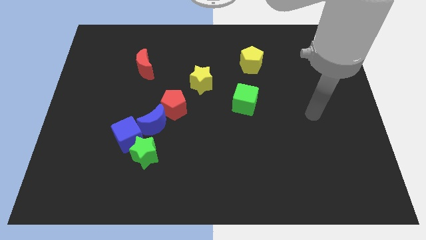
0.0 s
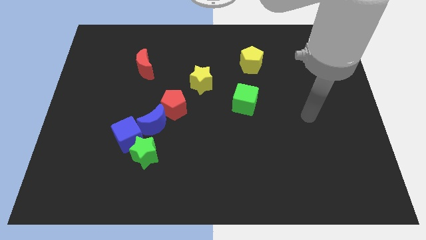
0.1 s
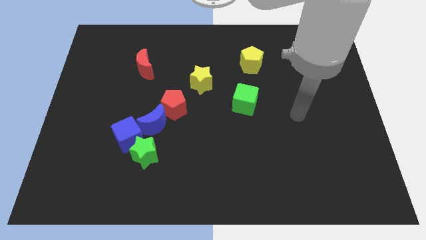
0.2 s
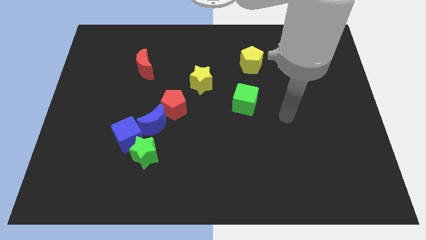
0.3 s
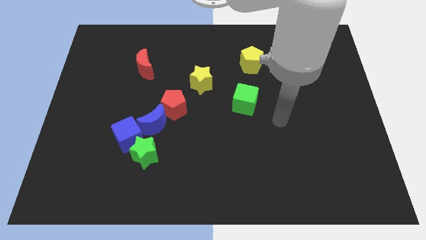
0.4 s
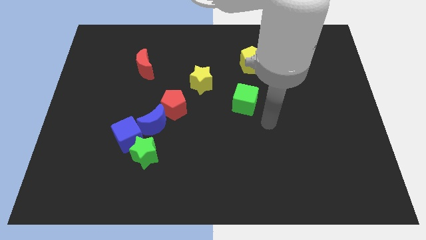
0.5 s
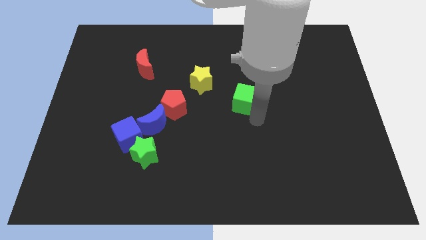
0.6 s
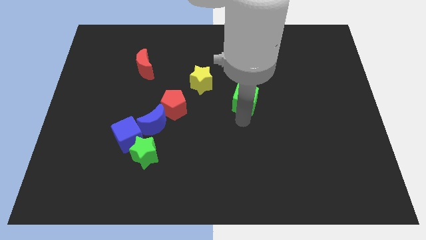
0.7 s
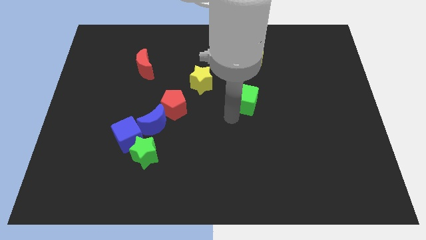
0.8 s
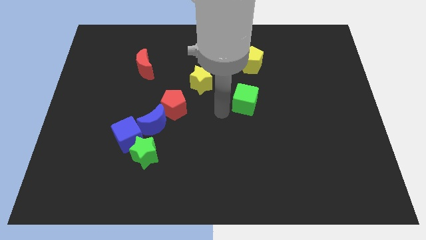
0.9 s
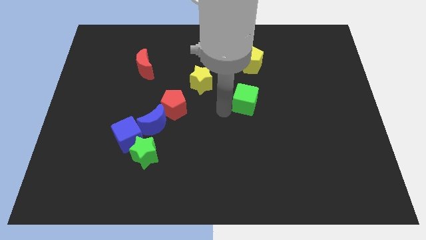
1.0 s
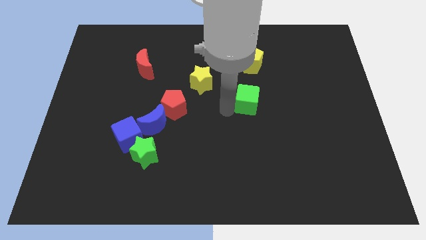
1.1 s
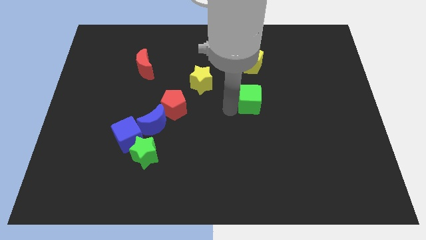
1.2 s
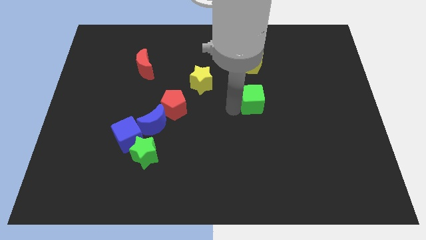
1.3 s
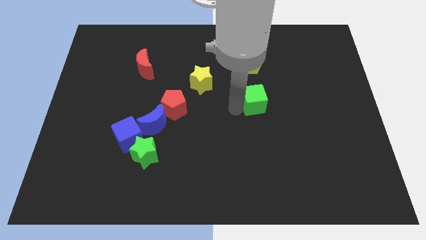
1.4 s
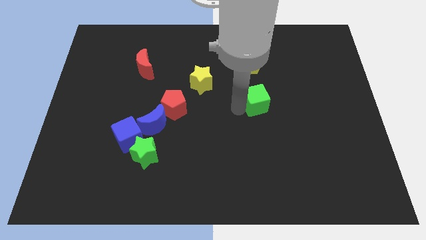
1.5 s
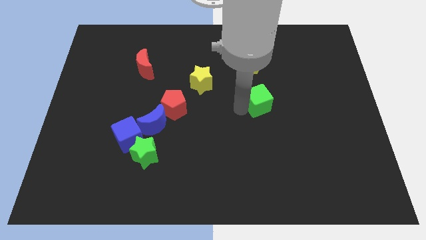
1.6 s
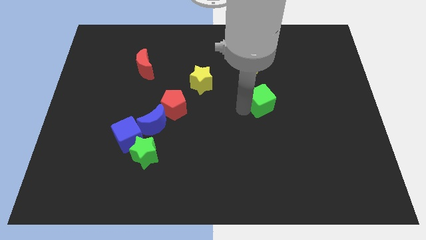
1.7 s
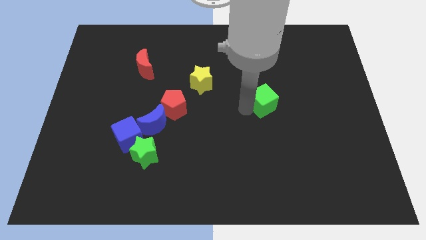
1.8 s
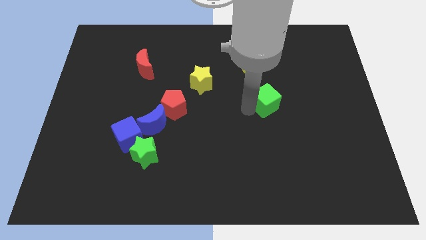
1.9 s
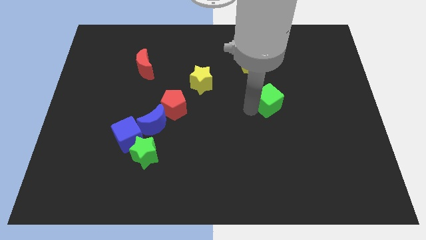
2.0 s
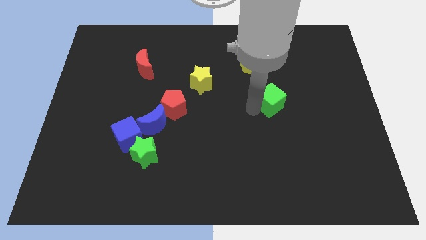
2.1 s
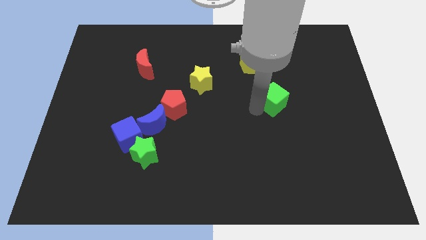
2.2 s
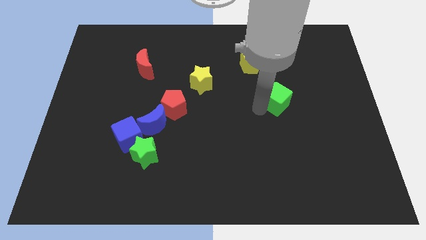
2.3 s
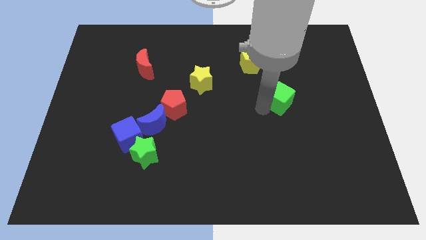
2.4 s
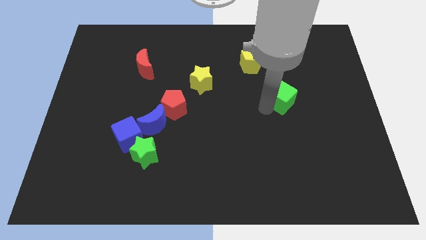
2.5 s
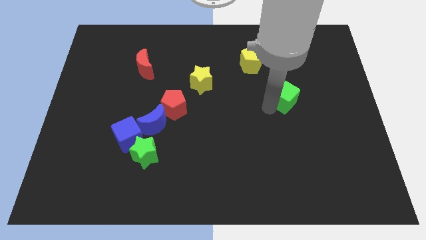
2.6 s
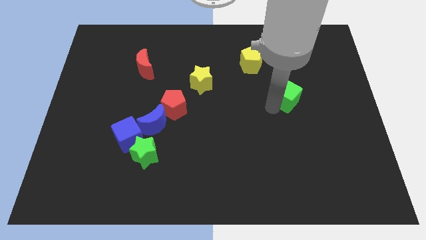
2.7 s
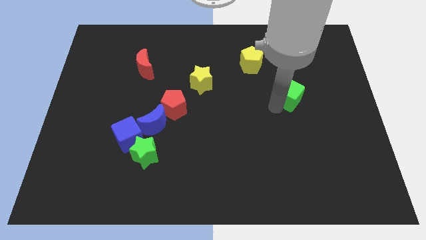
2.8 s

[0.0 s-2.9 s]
slightly slide the green cube upwards and then to the right

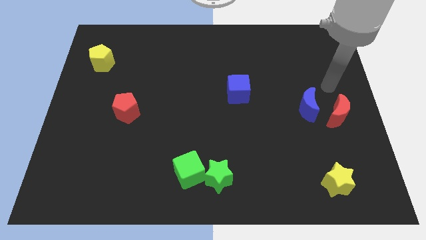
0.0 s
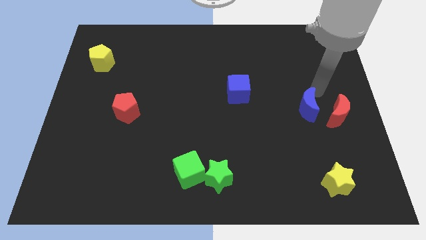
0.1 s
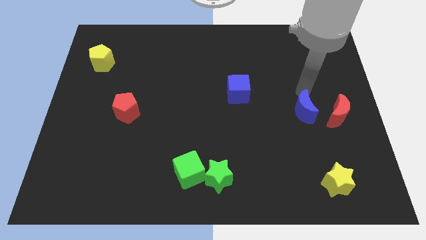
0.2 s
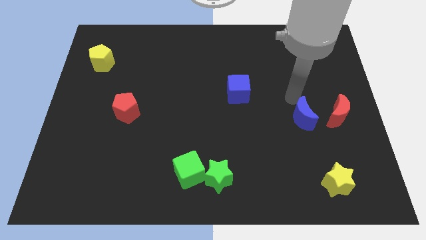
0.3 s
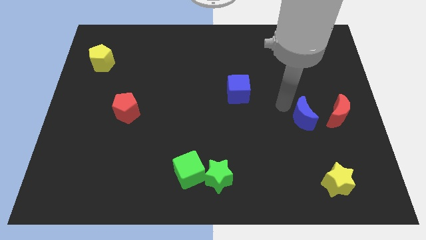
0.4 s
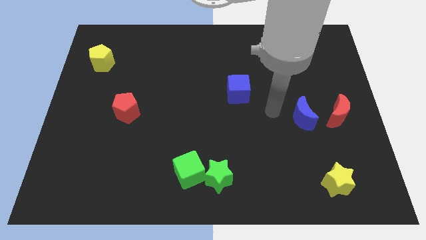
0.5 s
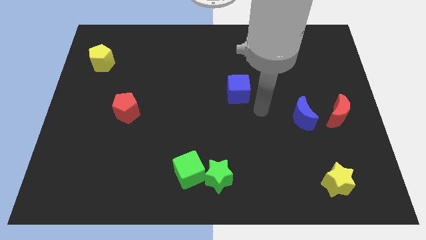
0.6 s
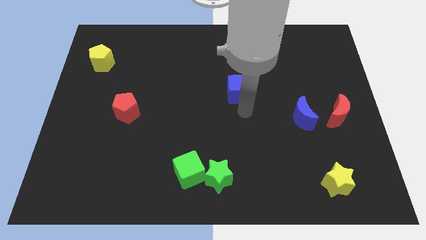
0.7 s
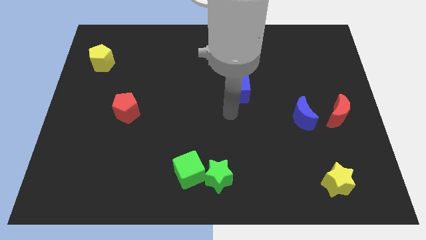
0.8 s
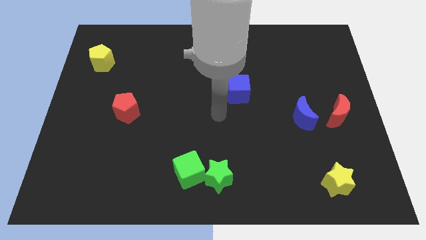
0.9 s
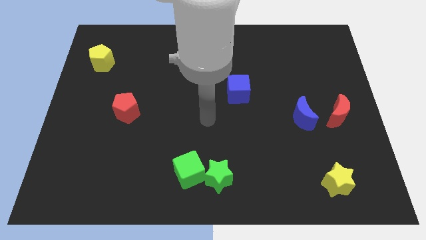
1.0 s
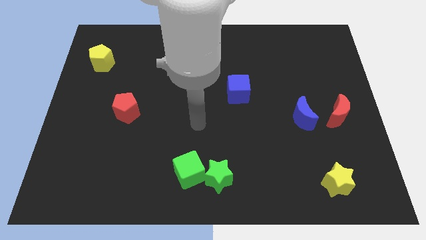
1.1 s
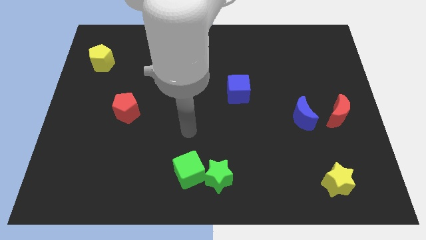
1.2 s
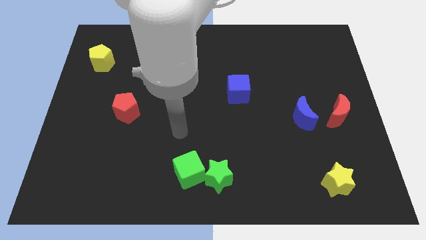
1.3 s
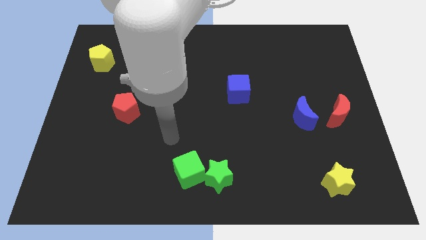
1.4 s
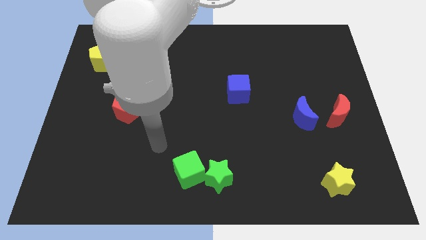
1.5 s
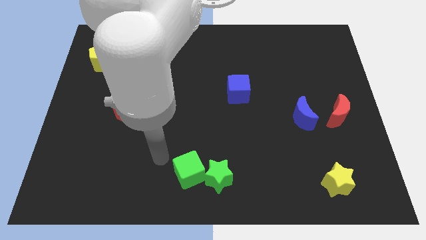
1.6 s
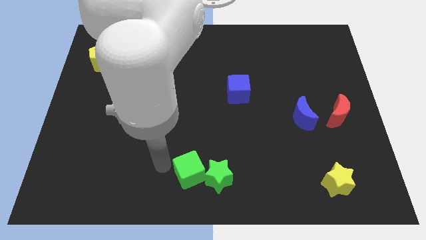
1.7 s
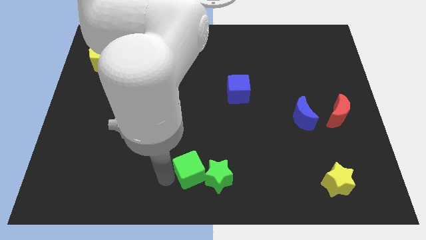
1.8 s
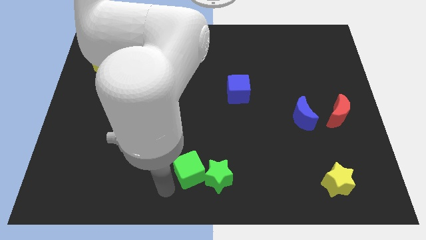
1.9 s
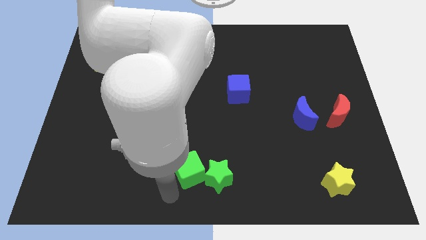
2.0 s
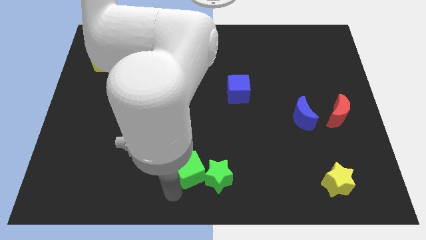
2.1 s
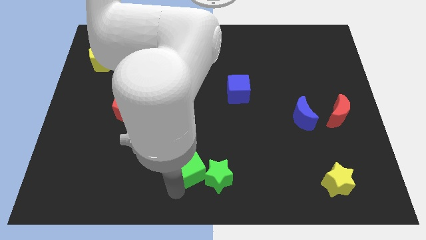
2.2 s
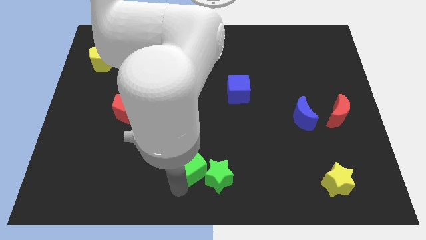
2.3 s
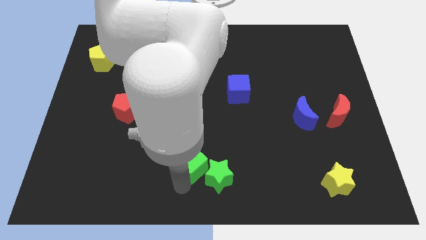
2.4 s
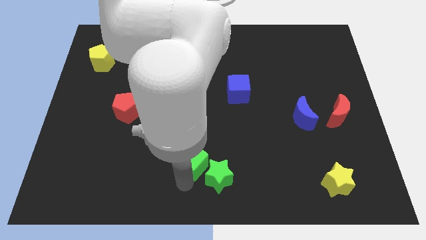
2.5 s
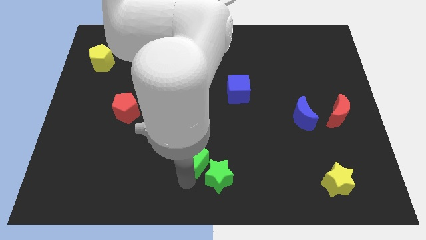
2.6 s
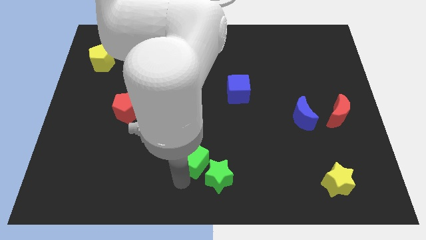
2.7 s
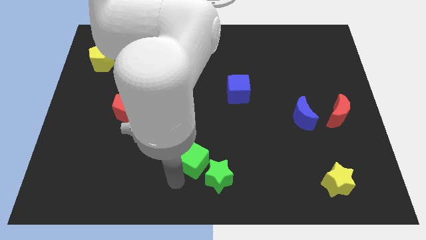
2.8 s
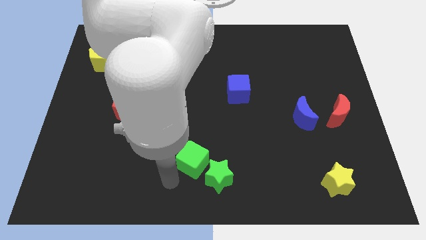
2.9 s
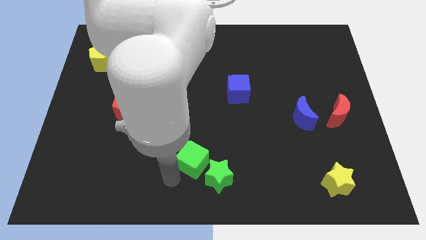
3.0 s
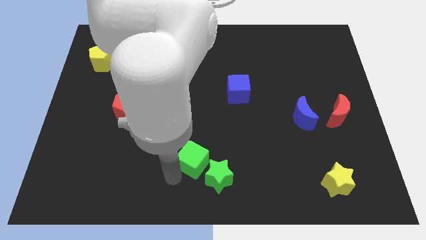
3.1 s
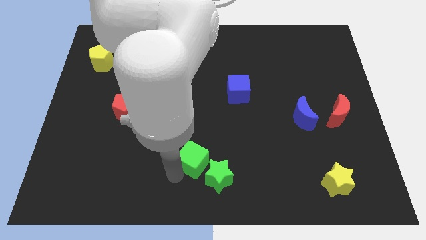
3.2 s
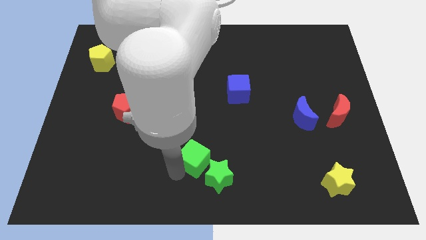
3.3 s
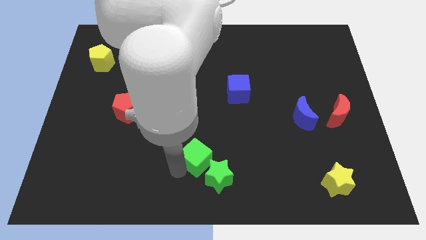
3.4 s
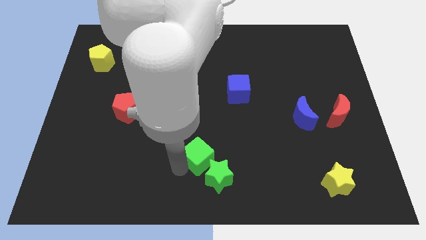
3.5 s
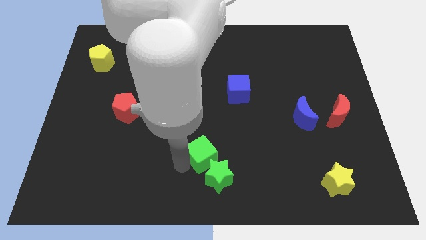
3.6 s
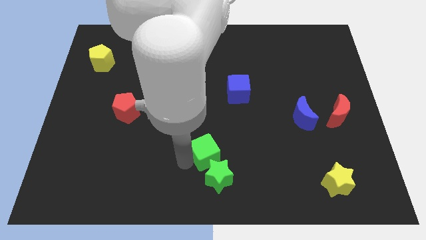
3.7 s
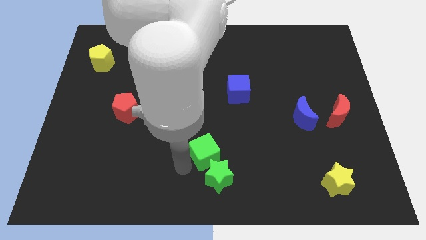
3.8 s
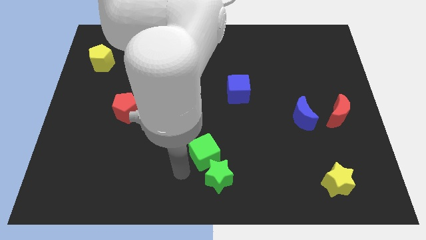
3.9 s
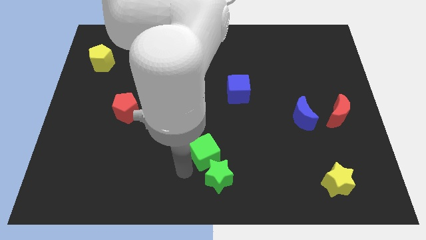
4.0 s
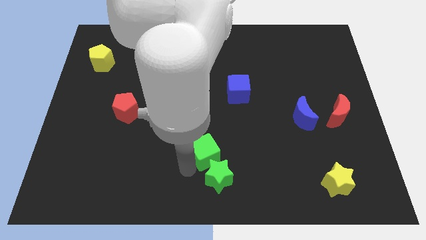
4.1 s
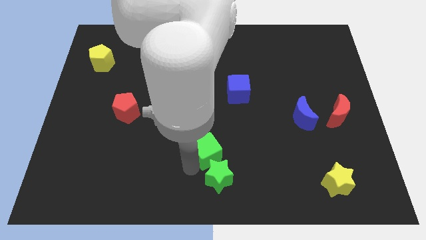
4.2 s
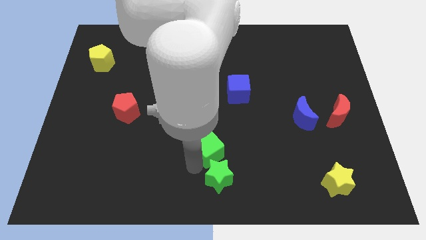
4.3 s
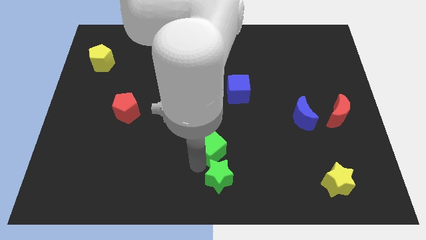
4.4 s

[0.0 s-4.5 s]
move the green cube upwards and right diagonally somewhat
